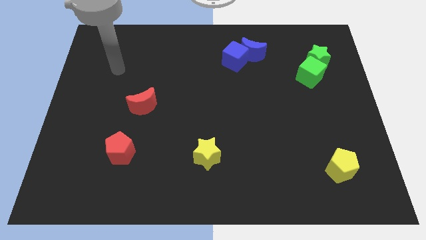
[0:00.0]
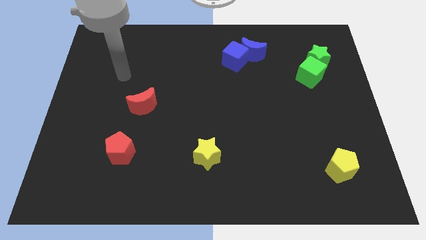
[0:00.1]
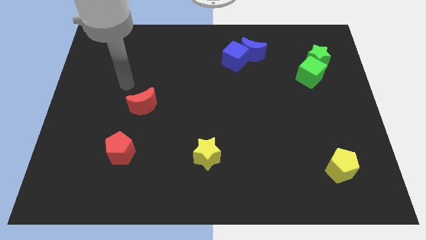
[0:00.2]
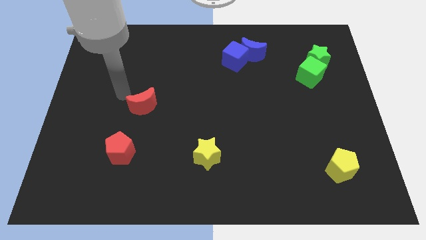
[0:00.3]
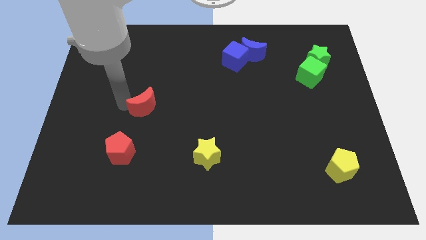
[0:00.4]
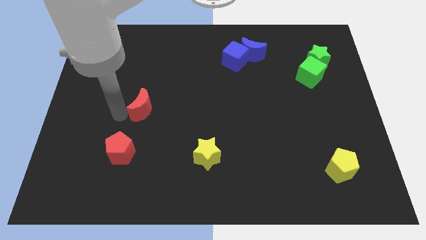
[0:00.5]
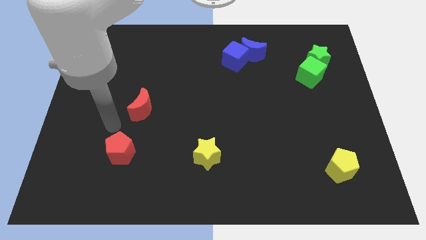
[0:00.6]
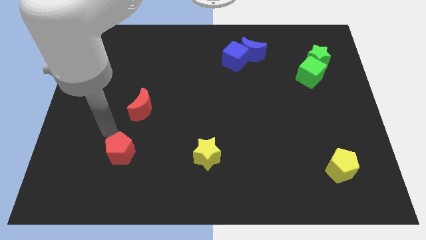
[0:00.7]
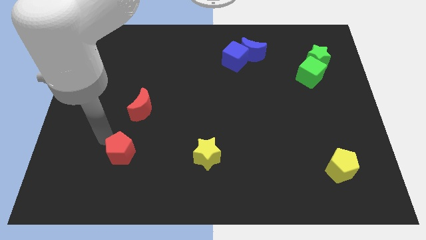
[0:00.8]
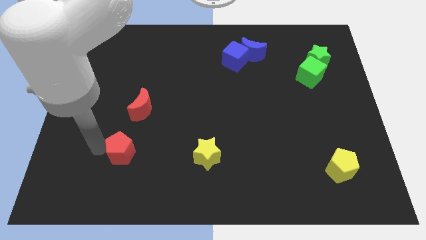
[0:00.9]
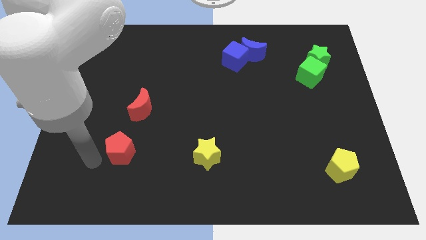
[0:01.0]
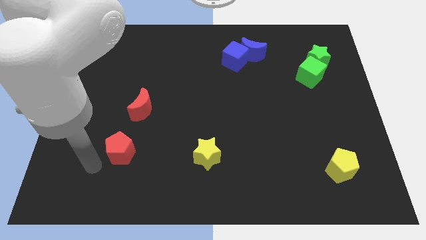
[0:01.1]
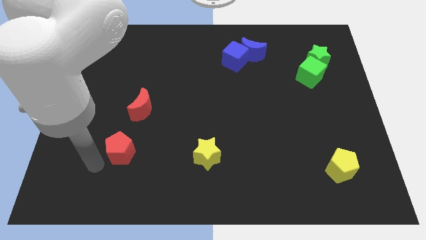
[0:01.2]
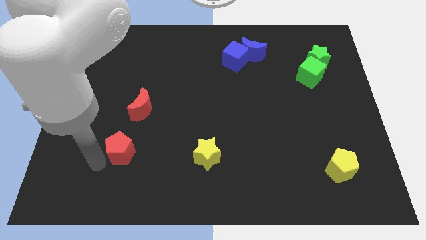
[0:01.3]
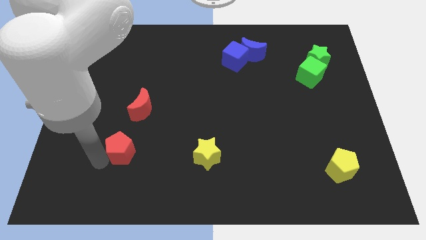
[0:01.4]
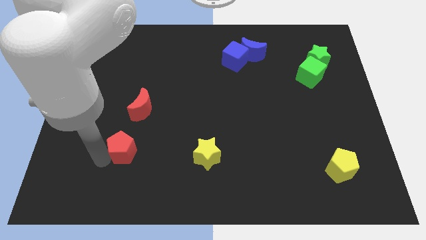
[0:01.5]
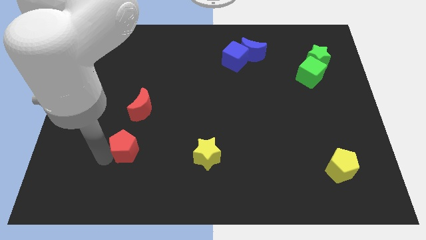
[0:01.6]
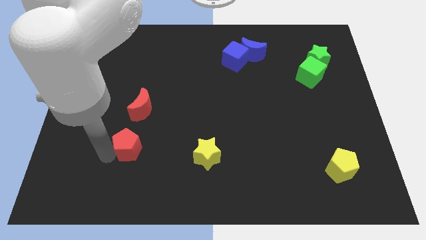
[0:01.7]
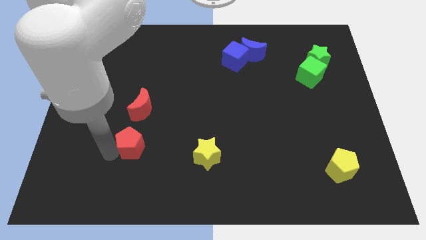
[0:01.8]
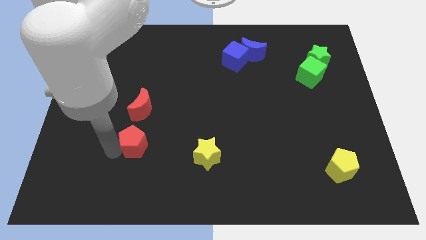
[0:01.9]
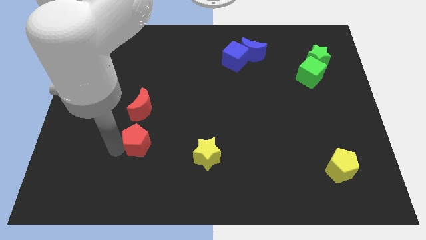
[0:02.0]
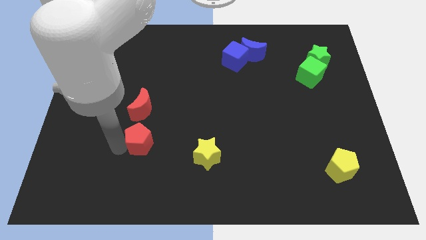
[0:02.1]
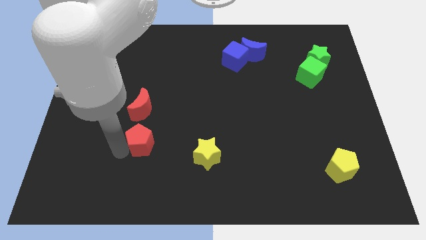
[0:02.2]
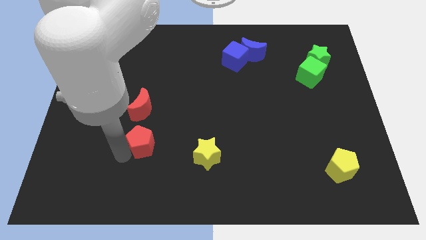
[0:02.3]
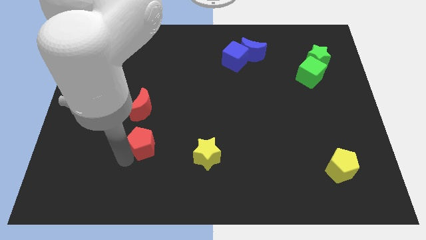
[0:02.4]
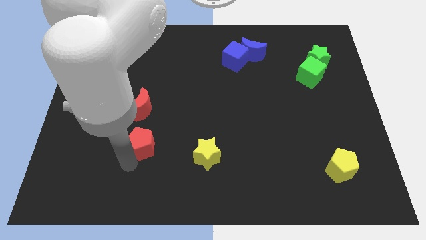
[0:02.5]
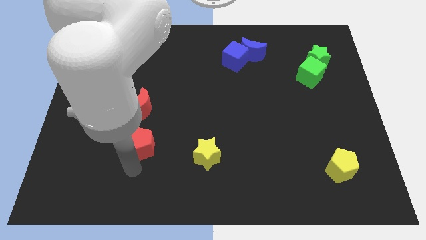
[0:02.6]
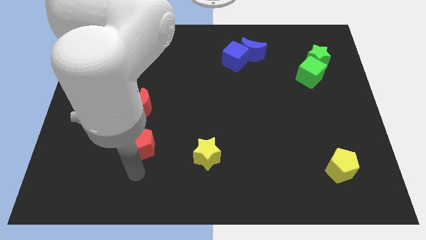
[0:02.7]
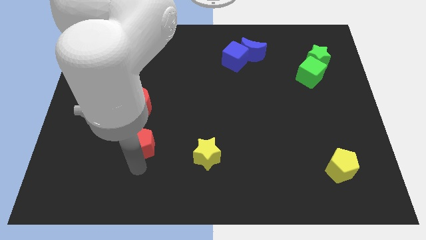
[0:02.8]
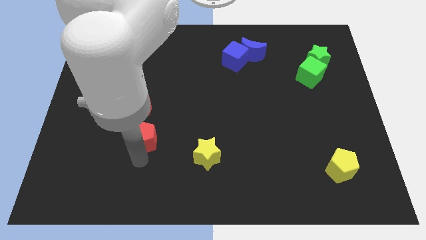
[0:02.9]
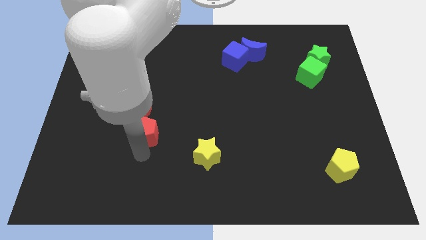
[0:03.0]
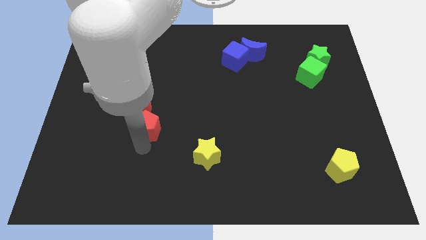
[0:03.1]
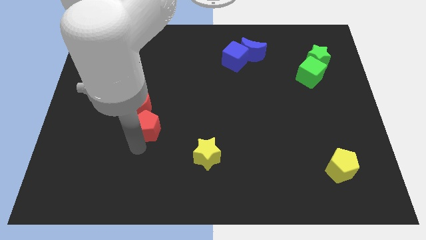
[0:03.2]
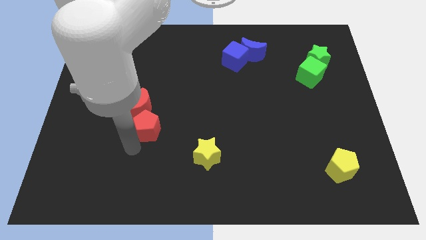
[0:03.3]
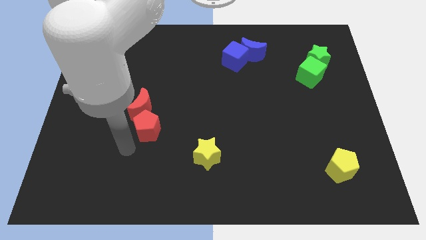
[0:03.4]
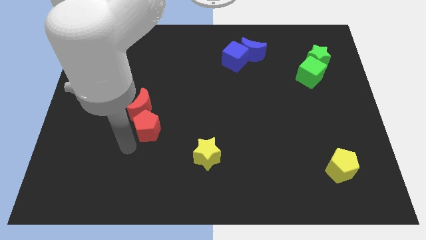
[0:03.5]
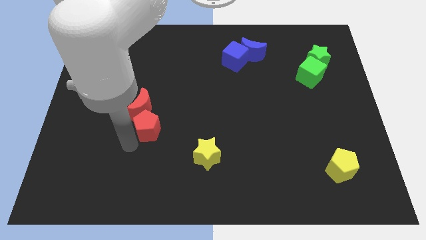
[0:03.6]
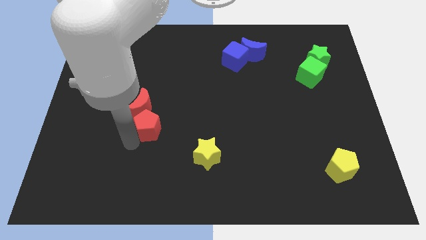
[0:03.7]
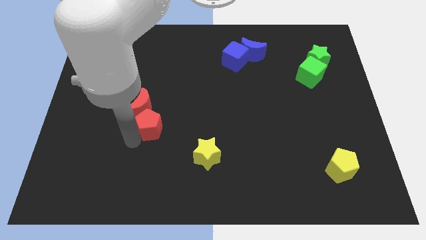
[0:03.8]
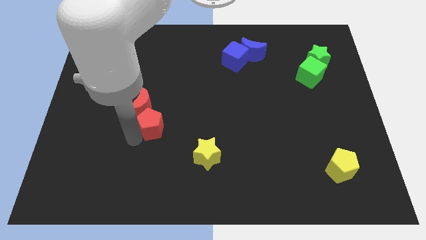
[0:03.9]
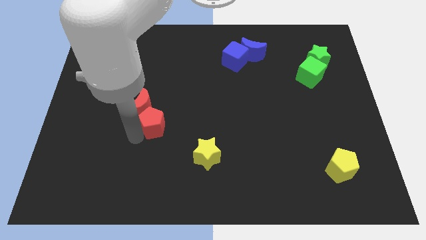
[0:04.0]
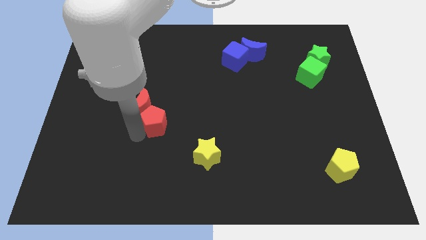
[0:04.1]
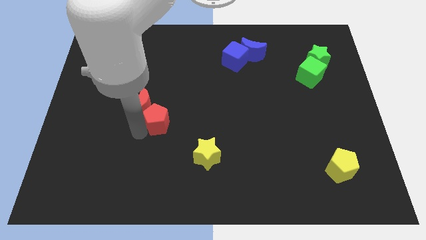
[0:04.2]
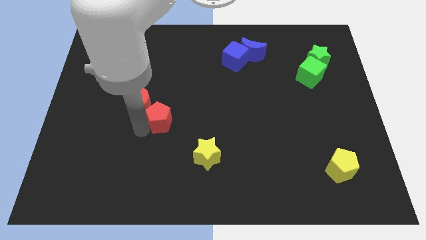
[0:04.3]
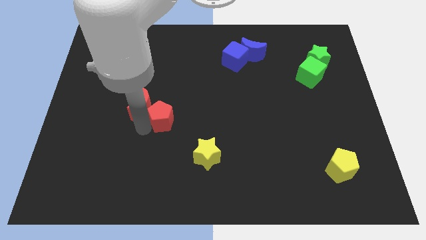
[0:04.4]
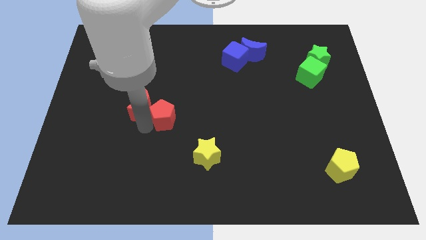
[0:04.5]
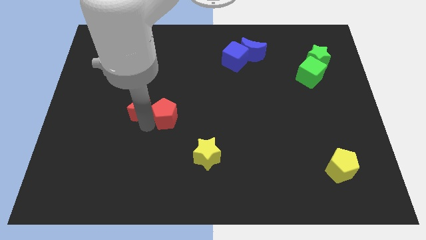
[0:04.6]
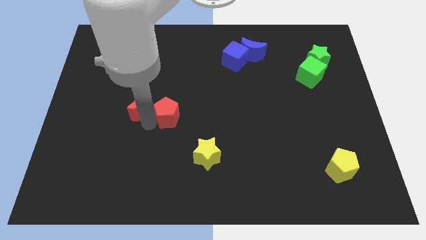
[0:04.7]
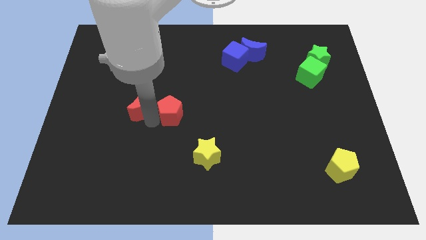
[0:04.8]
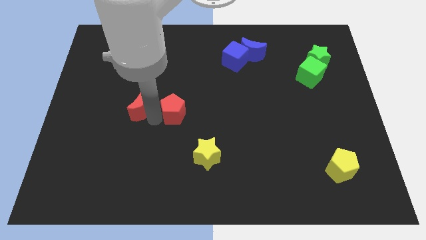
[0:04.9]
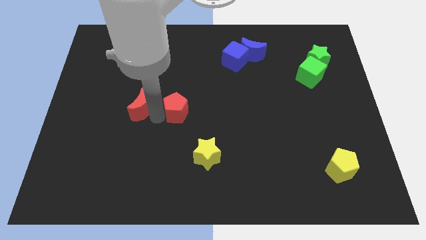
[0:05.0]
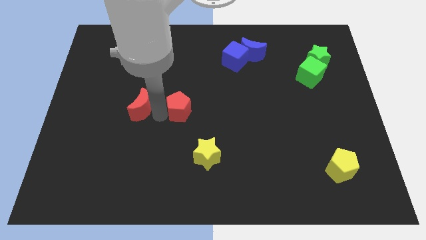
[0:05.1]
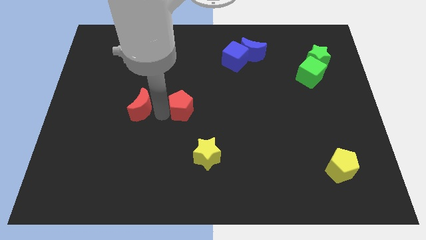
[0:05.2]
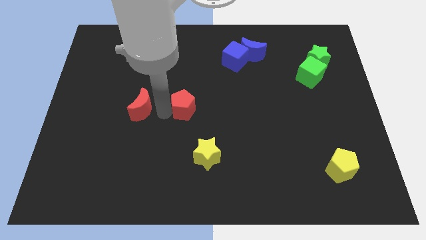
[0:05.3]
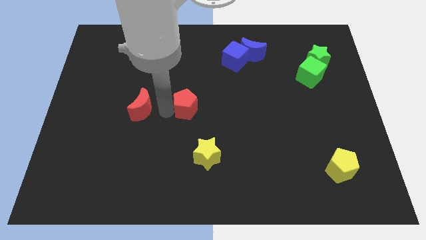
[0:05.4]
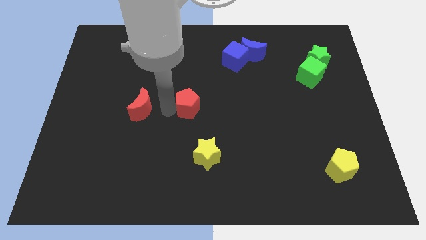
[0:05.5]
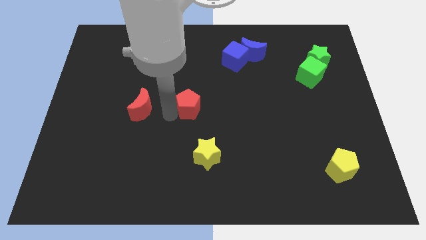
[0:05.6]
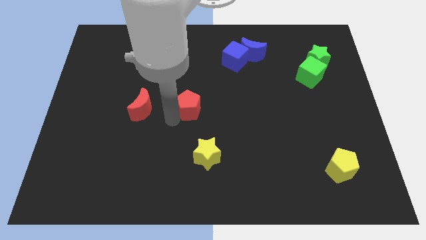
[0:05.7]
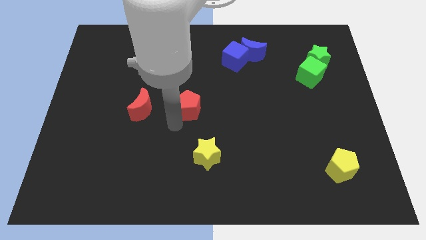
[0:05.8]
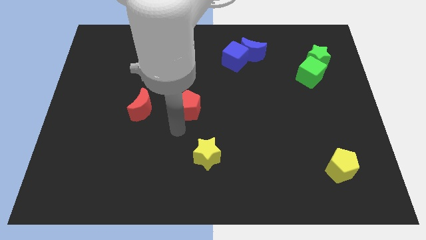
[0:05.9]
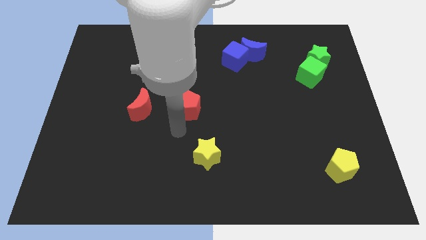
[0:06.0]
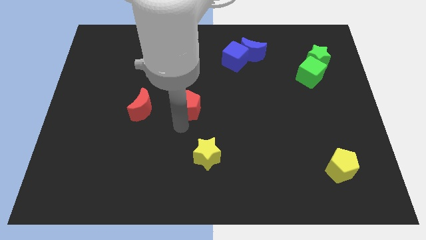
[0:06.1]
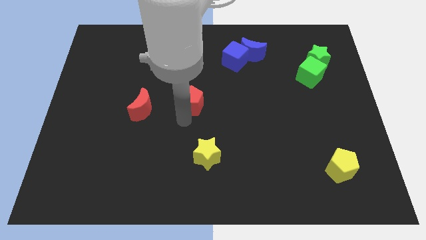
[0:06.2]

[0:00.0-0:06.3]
push the red pentagon up and right

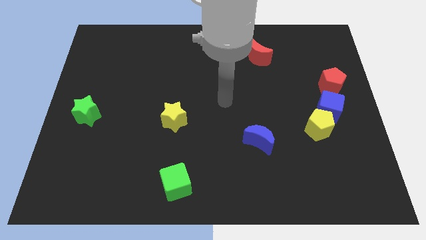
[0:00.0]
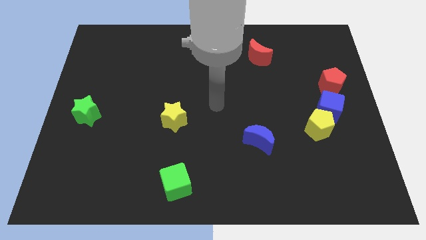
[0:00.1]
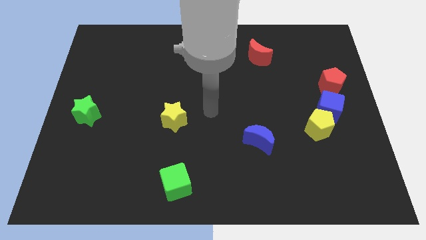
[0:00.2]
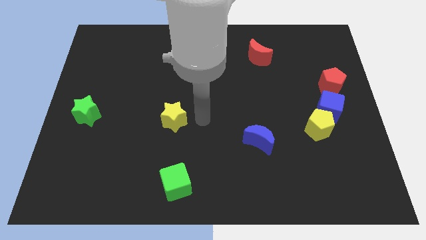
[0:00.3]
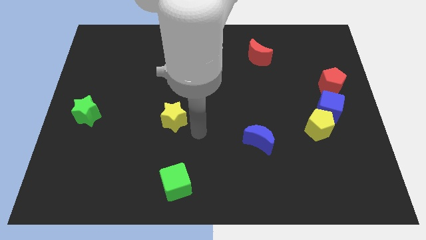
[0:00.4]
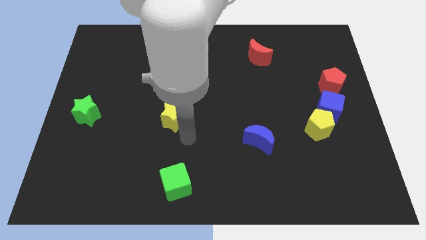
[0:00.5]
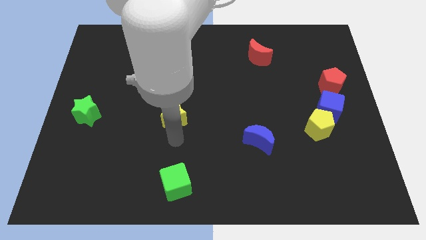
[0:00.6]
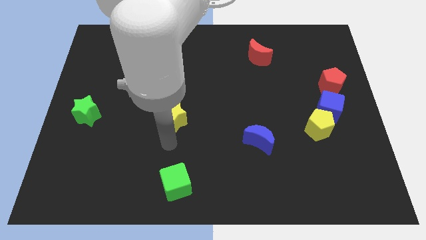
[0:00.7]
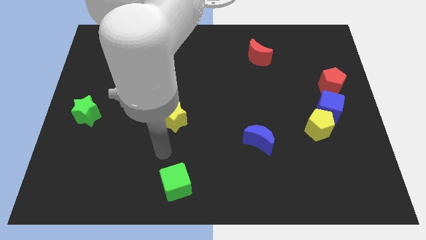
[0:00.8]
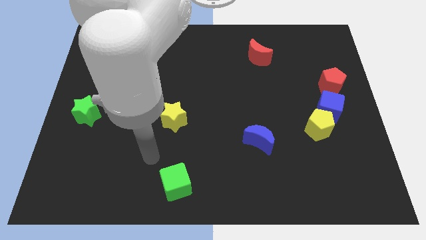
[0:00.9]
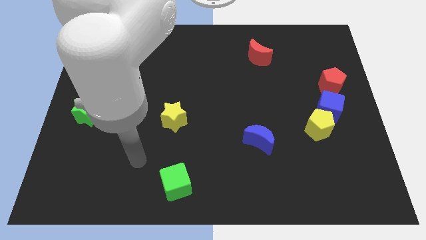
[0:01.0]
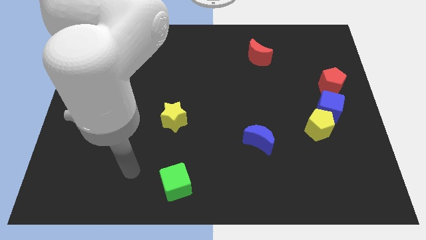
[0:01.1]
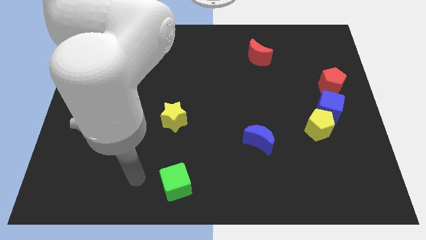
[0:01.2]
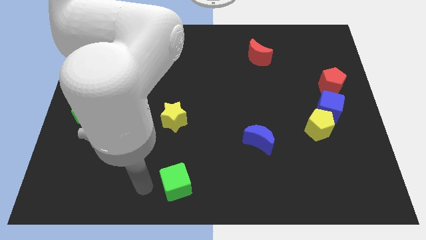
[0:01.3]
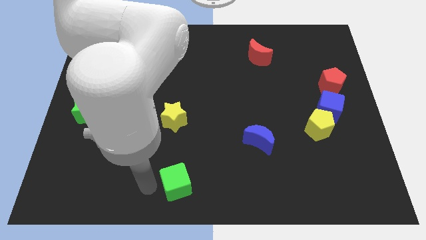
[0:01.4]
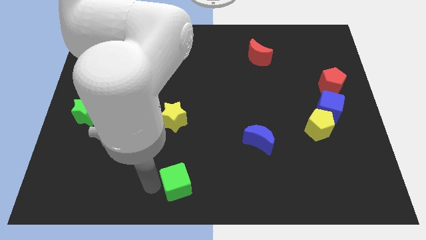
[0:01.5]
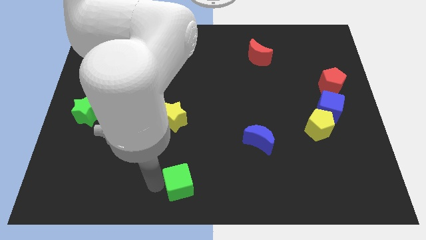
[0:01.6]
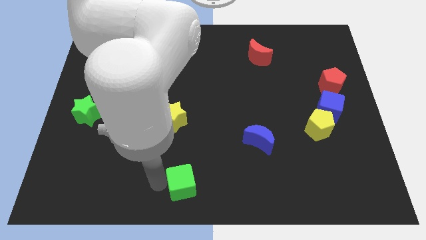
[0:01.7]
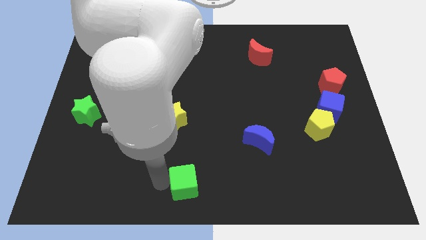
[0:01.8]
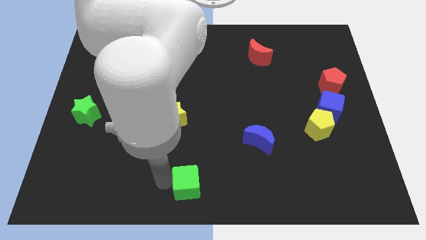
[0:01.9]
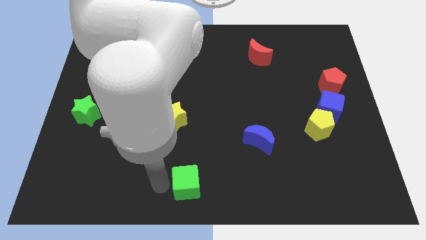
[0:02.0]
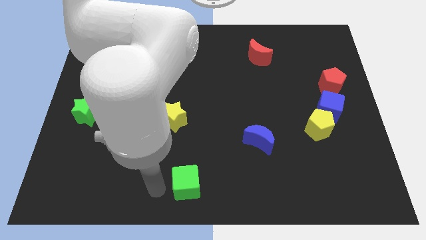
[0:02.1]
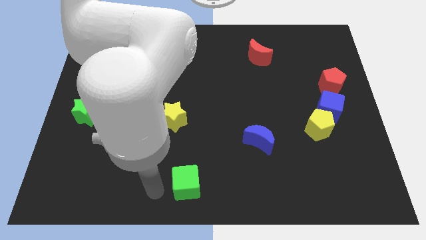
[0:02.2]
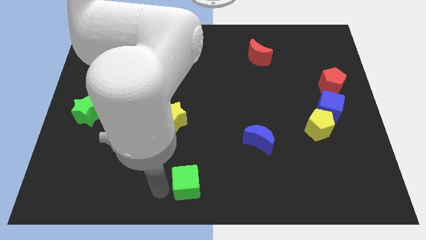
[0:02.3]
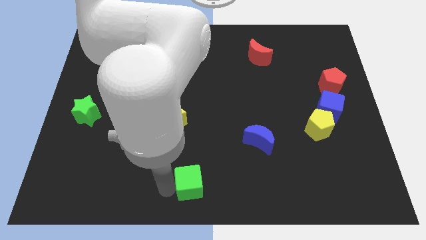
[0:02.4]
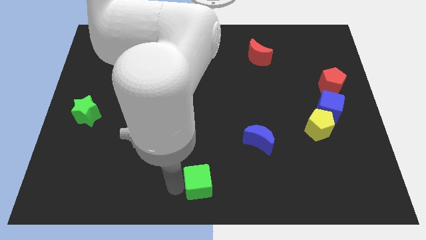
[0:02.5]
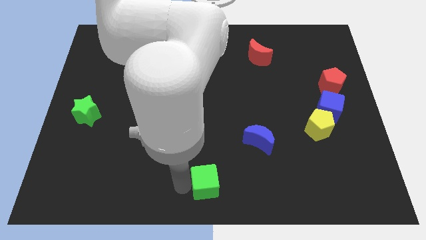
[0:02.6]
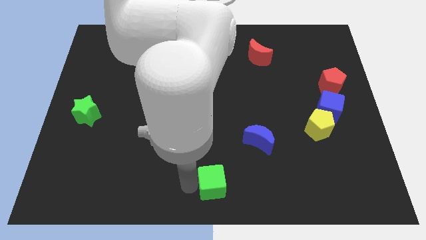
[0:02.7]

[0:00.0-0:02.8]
push the green cube right somewhat
